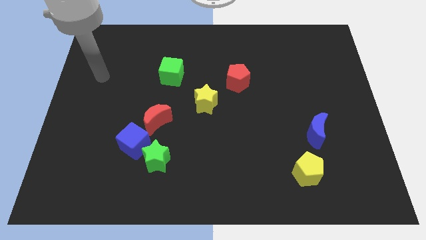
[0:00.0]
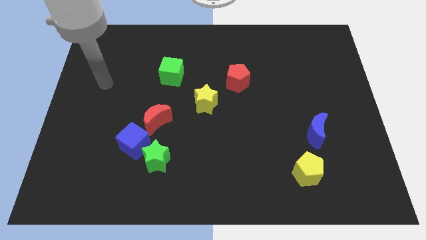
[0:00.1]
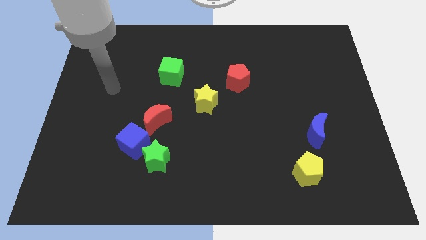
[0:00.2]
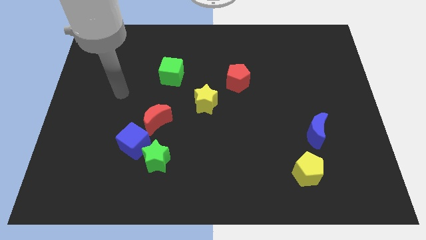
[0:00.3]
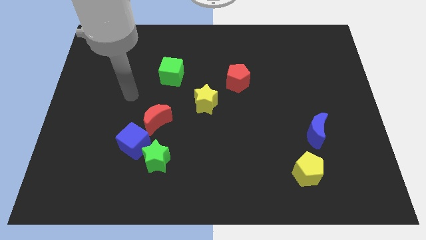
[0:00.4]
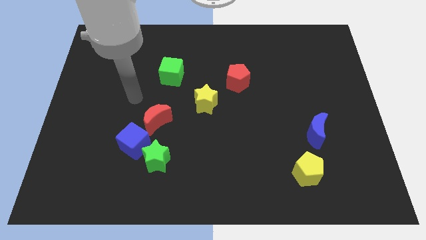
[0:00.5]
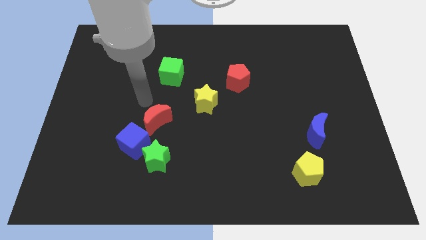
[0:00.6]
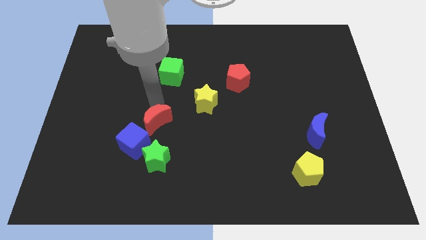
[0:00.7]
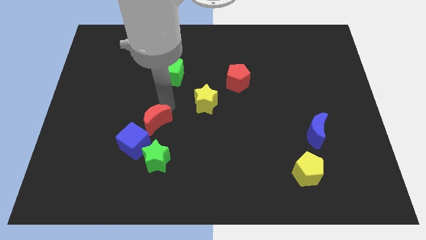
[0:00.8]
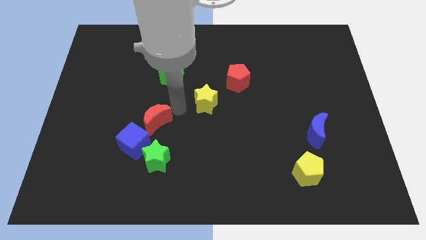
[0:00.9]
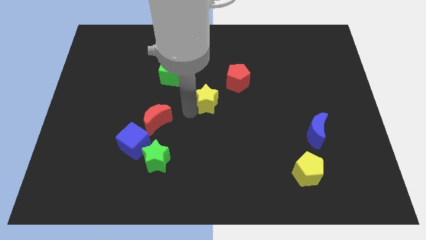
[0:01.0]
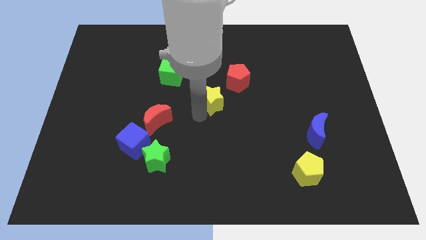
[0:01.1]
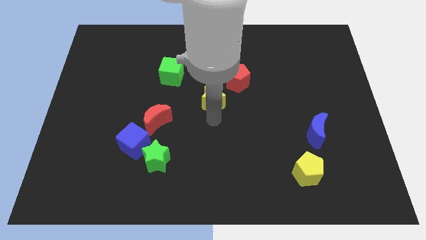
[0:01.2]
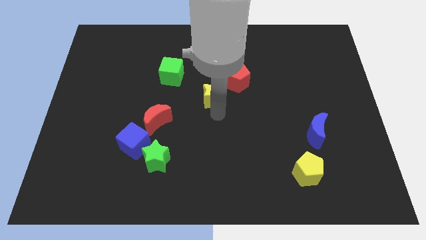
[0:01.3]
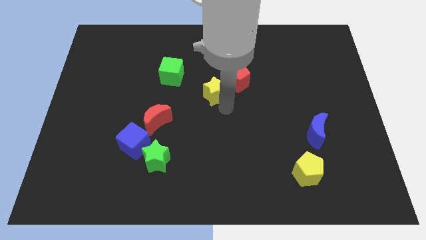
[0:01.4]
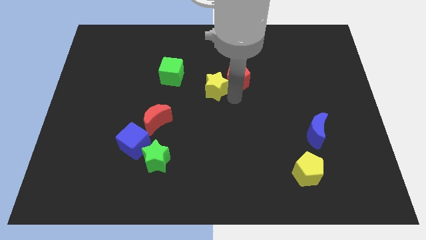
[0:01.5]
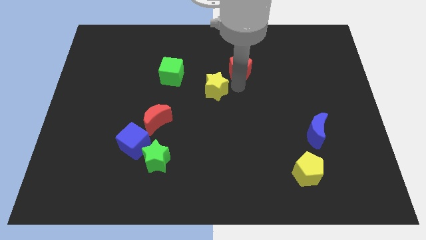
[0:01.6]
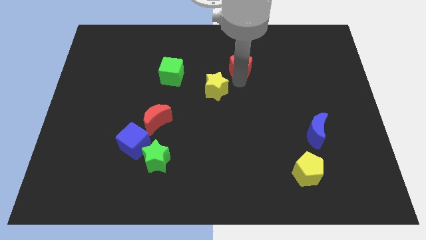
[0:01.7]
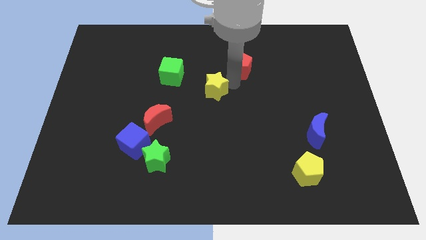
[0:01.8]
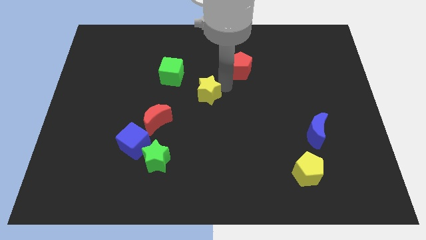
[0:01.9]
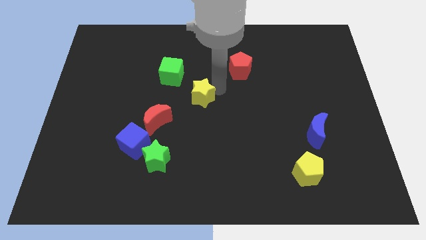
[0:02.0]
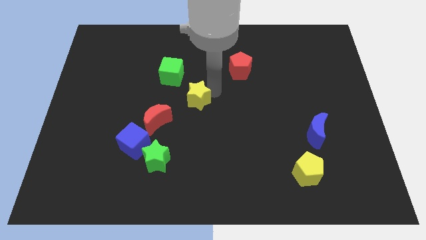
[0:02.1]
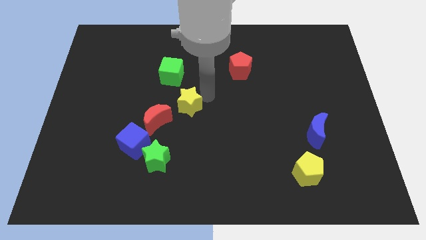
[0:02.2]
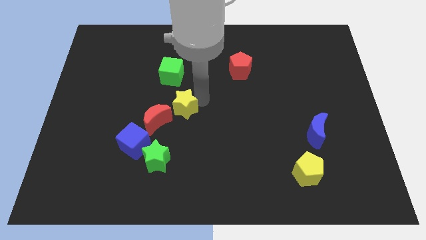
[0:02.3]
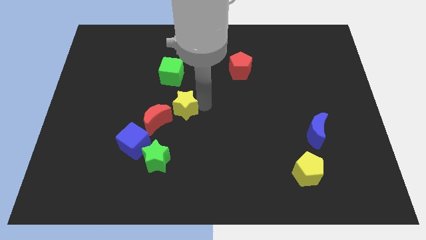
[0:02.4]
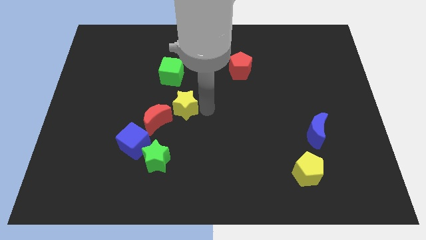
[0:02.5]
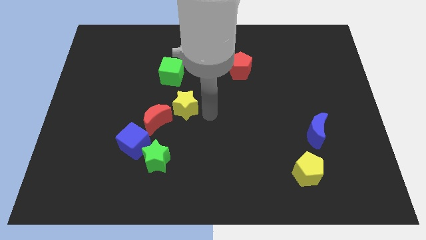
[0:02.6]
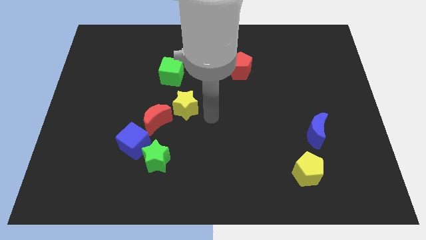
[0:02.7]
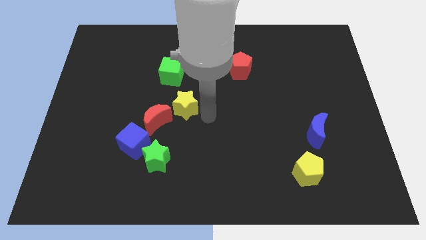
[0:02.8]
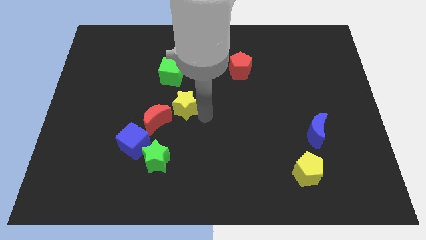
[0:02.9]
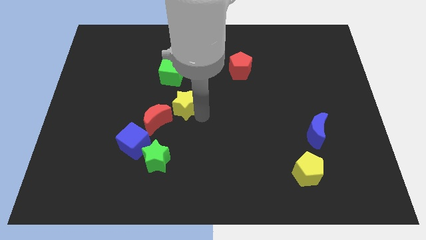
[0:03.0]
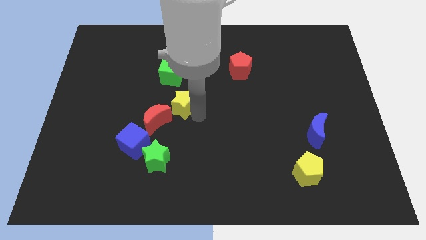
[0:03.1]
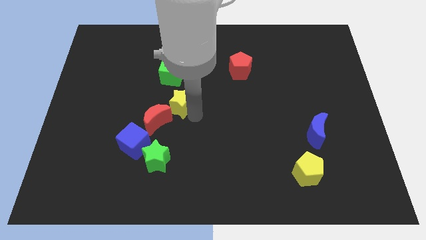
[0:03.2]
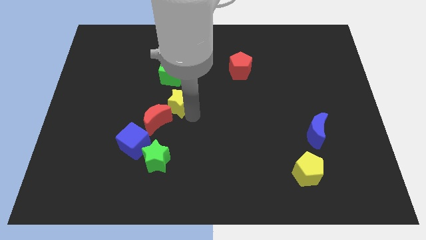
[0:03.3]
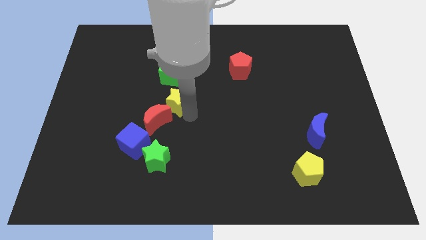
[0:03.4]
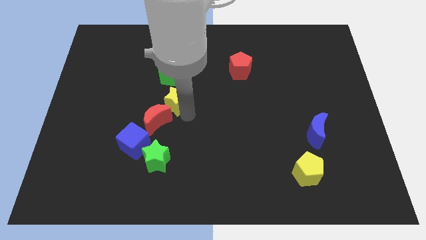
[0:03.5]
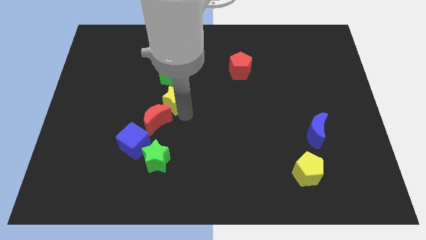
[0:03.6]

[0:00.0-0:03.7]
push the yellow star somewhat to the left

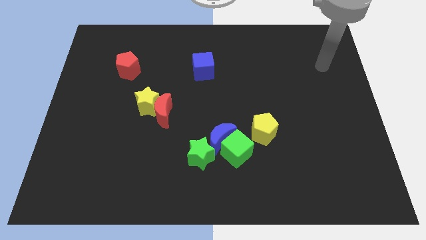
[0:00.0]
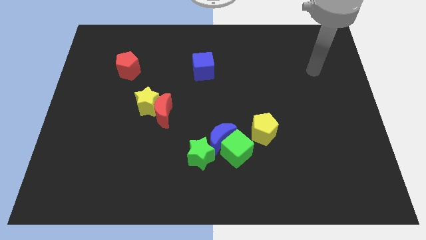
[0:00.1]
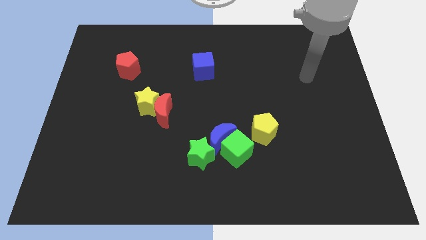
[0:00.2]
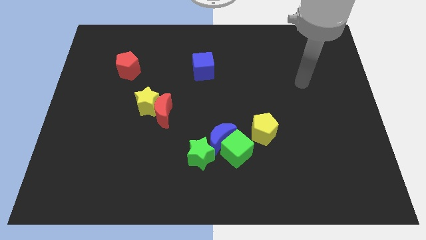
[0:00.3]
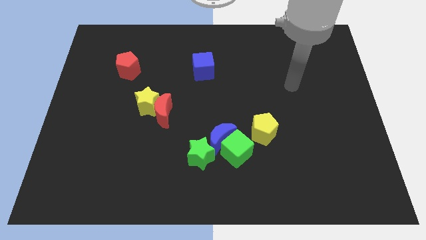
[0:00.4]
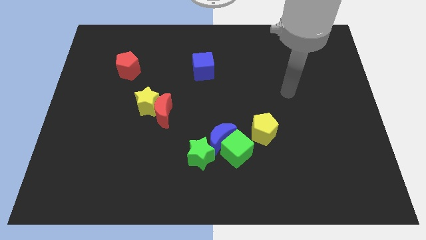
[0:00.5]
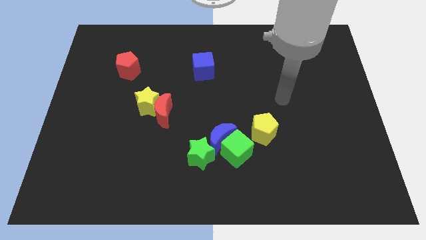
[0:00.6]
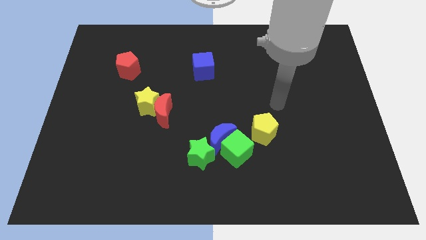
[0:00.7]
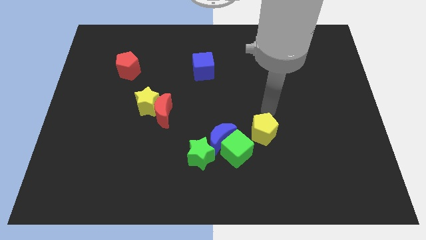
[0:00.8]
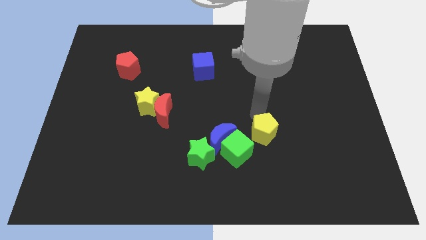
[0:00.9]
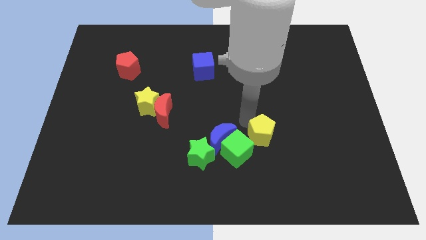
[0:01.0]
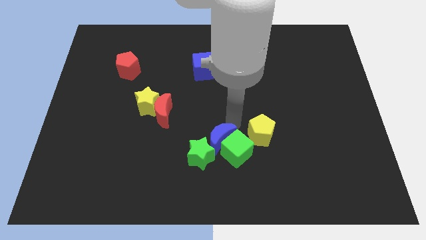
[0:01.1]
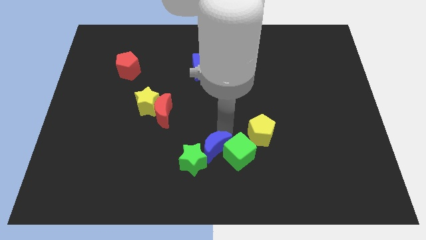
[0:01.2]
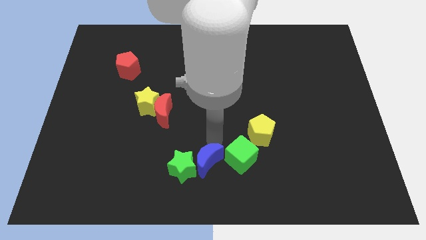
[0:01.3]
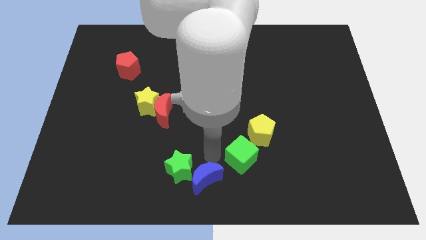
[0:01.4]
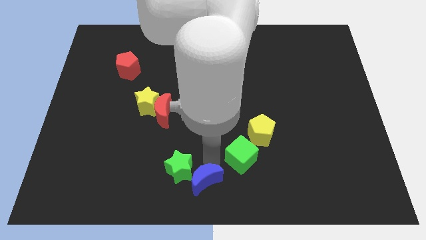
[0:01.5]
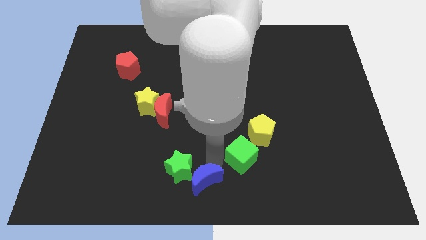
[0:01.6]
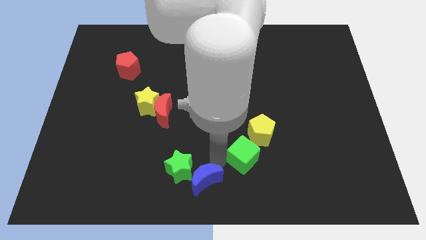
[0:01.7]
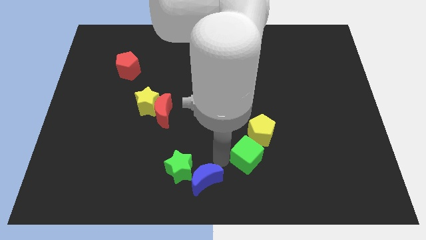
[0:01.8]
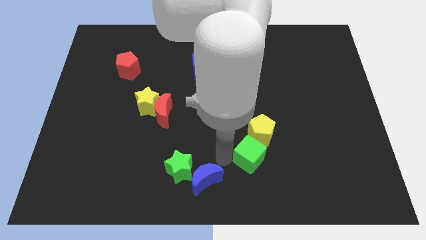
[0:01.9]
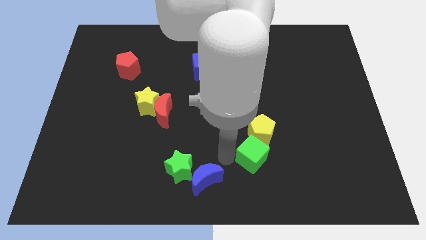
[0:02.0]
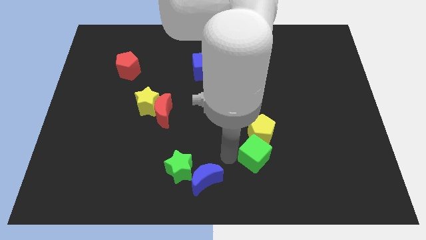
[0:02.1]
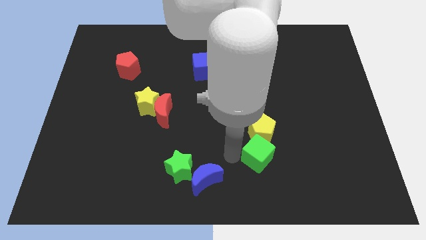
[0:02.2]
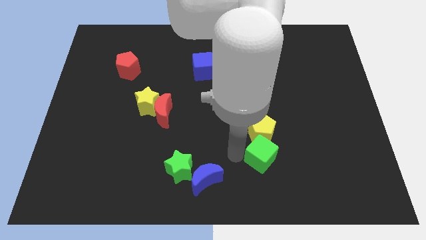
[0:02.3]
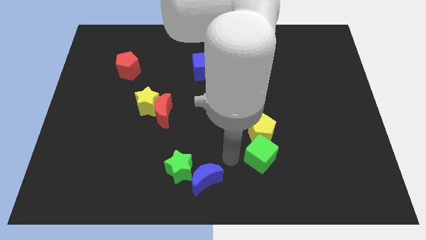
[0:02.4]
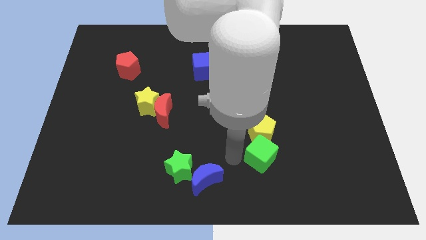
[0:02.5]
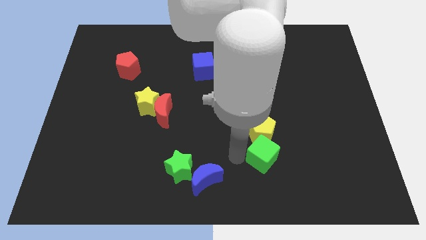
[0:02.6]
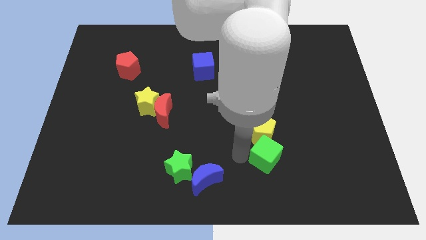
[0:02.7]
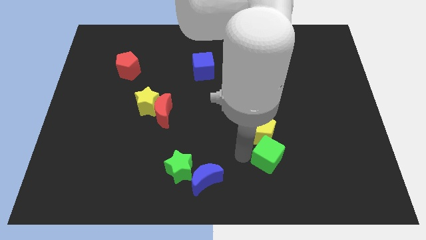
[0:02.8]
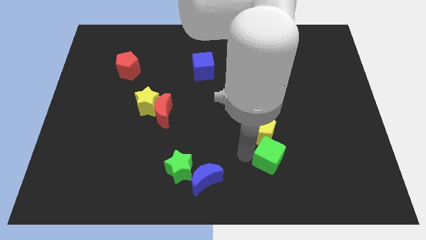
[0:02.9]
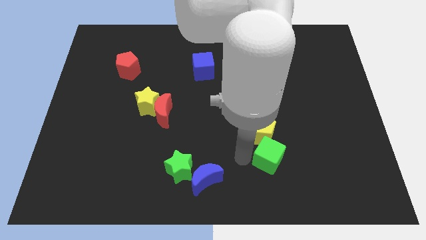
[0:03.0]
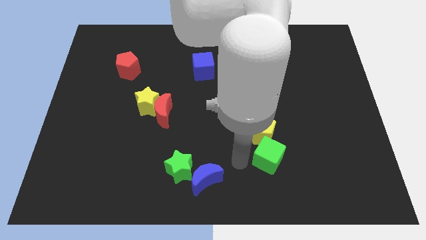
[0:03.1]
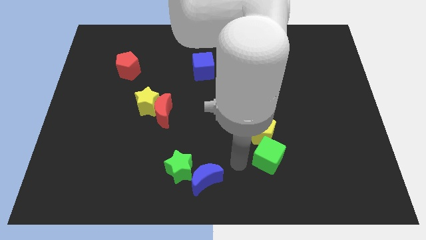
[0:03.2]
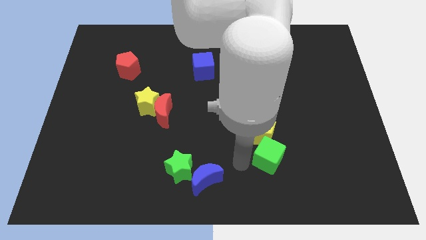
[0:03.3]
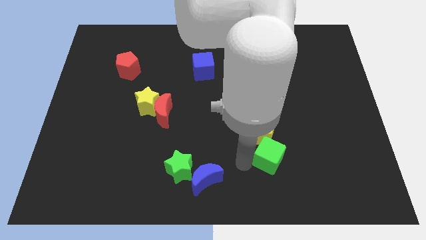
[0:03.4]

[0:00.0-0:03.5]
slide the green cube right somewhat

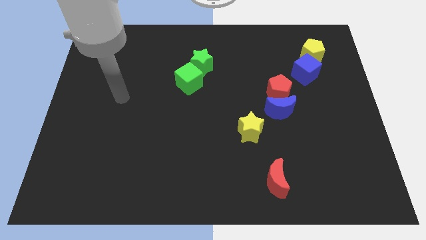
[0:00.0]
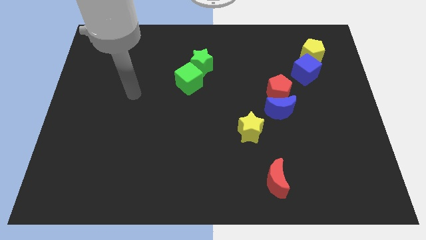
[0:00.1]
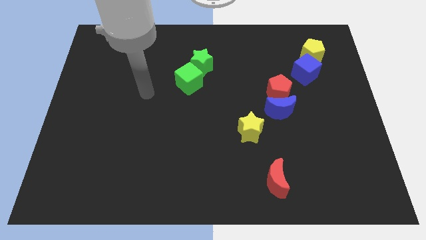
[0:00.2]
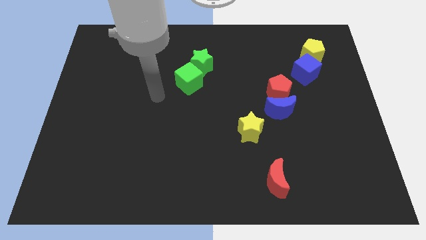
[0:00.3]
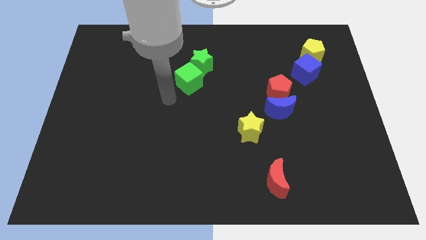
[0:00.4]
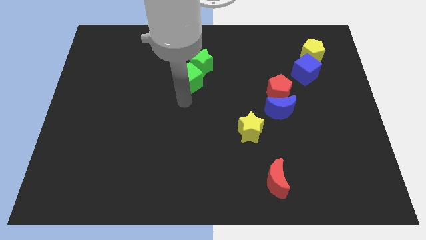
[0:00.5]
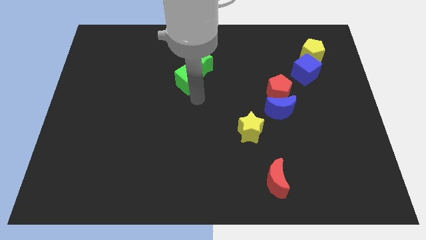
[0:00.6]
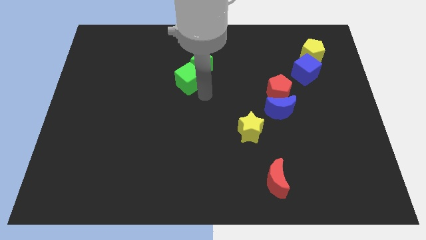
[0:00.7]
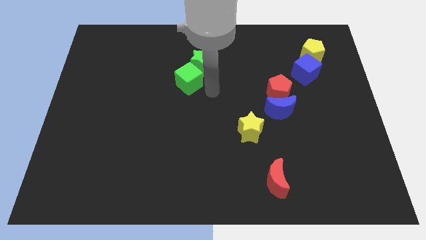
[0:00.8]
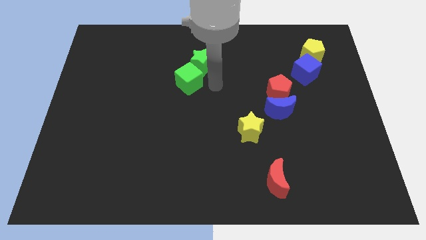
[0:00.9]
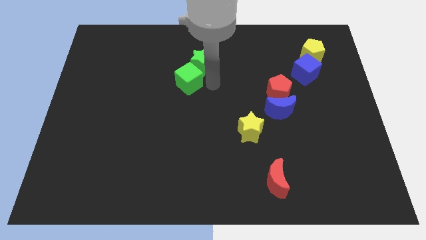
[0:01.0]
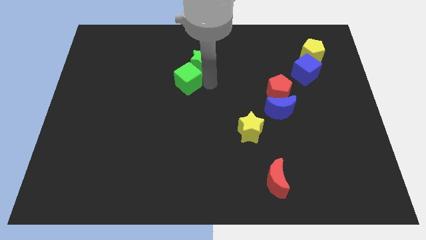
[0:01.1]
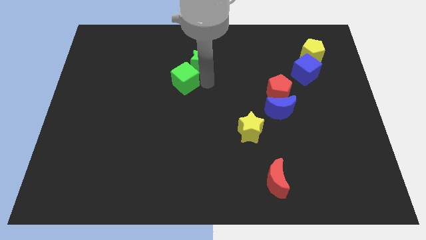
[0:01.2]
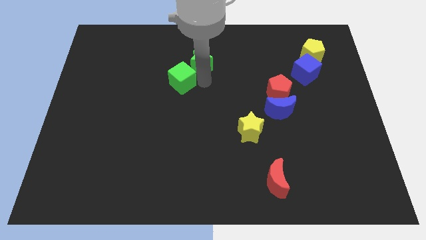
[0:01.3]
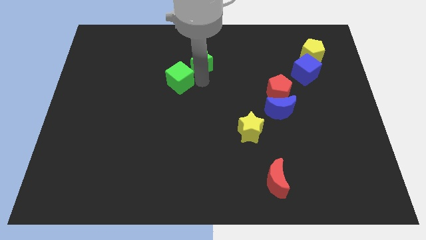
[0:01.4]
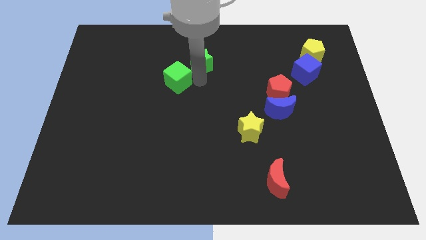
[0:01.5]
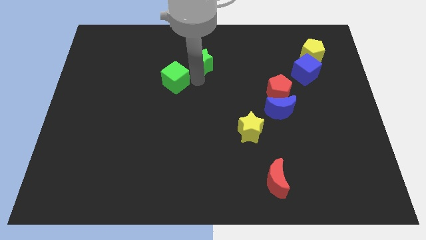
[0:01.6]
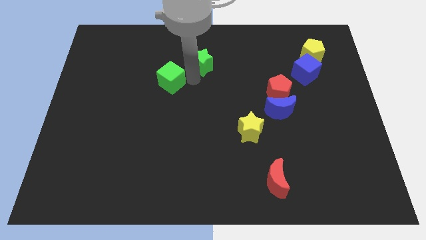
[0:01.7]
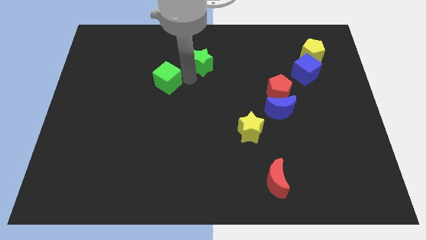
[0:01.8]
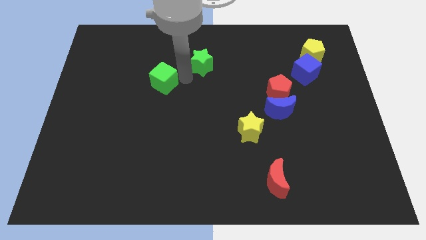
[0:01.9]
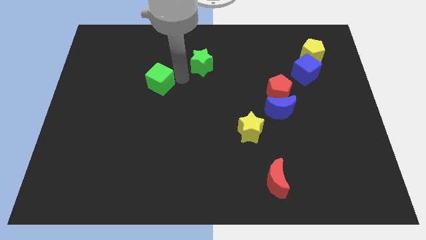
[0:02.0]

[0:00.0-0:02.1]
slide the green cube to the left somewhat
